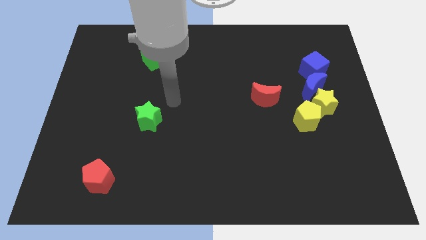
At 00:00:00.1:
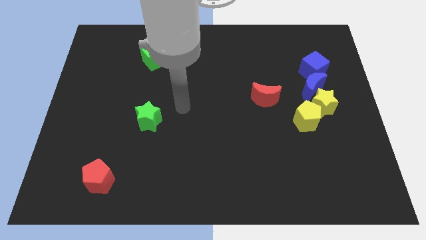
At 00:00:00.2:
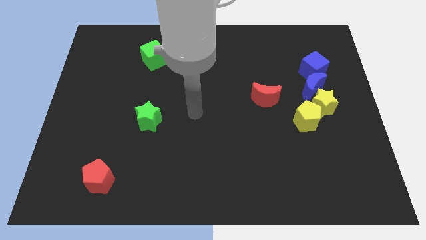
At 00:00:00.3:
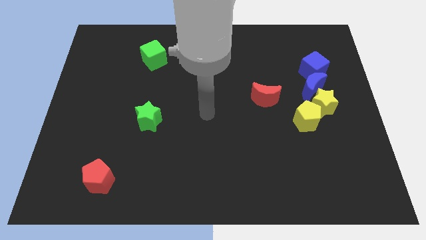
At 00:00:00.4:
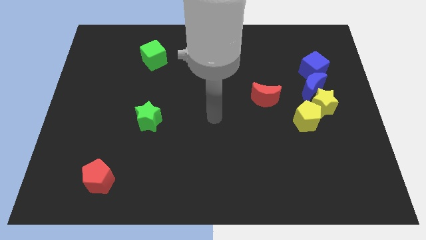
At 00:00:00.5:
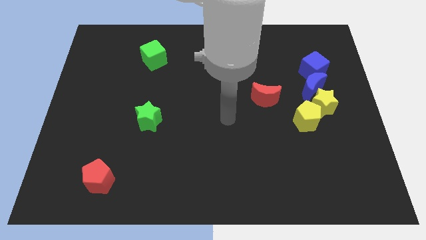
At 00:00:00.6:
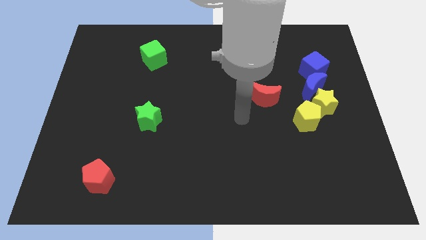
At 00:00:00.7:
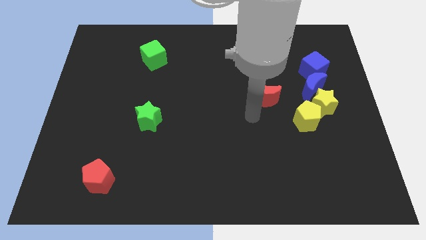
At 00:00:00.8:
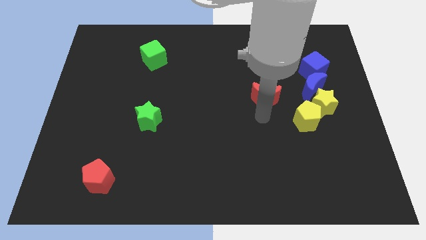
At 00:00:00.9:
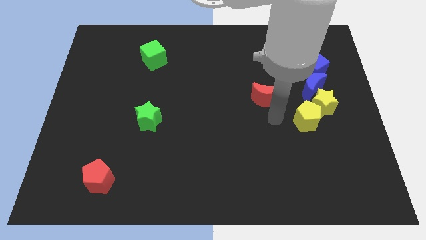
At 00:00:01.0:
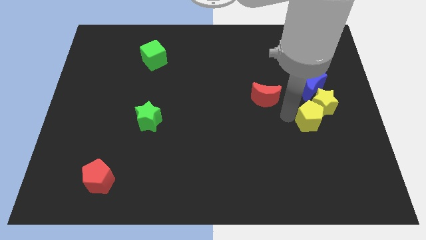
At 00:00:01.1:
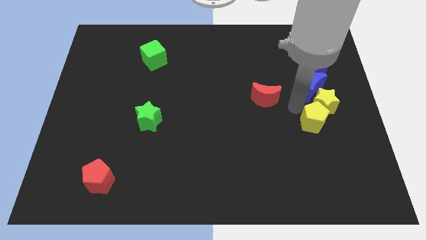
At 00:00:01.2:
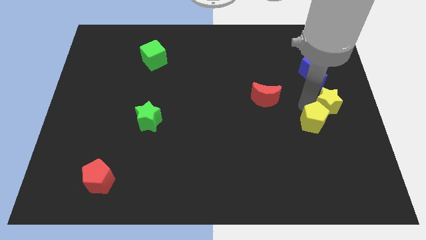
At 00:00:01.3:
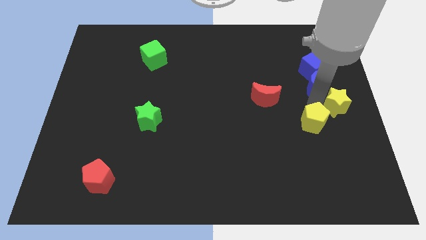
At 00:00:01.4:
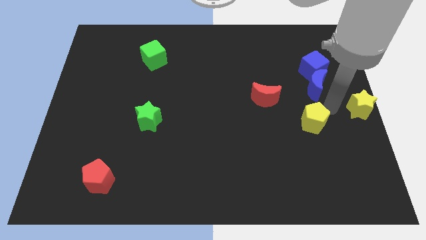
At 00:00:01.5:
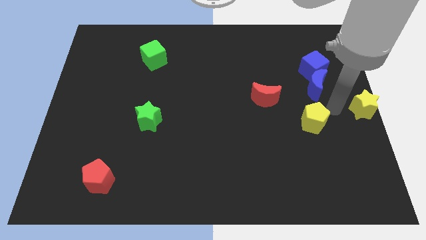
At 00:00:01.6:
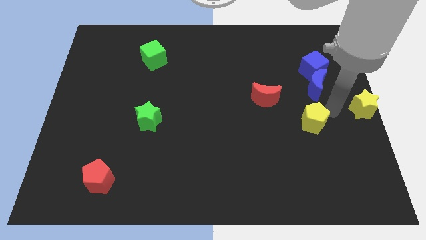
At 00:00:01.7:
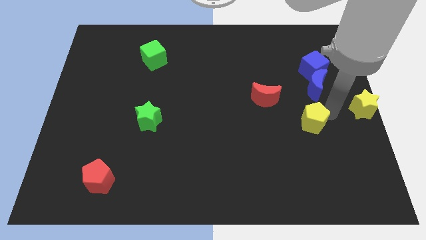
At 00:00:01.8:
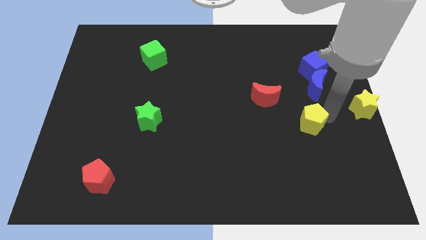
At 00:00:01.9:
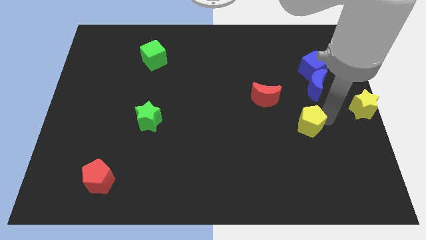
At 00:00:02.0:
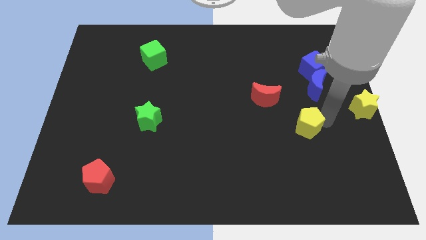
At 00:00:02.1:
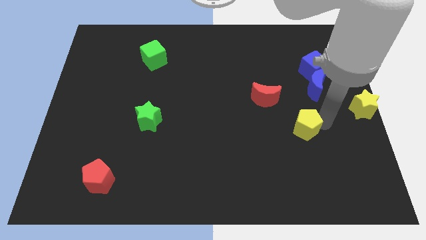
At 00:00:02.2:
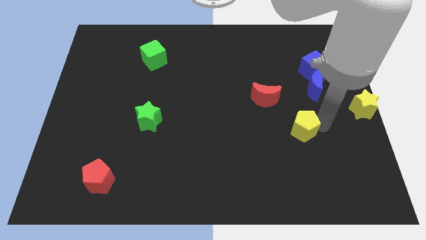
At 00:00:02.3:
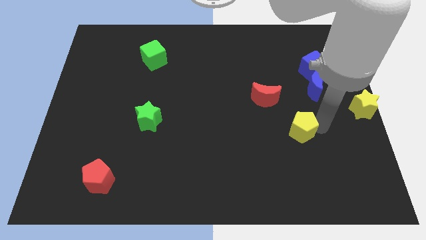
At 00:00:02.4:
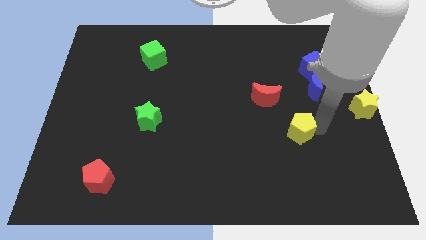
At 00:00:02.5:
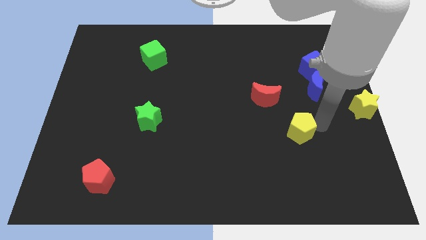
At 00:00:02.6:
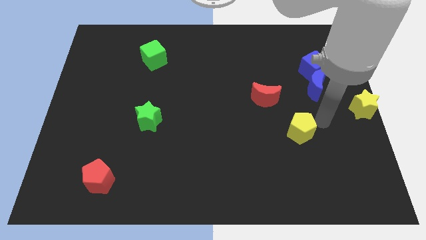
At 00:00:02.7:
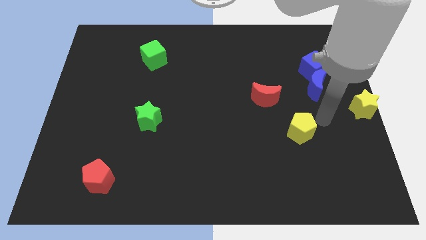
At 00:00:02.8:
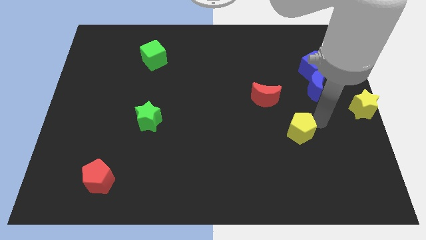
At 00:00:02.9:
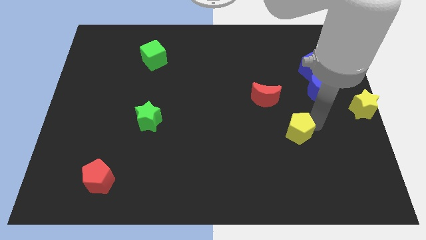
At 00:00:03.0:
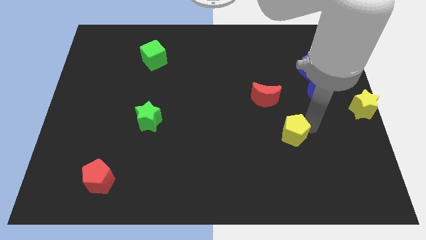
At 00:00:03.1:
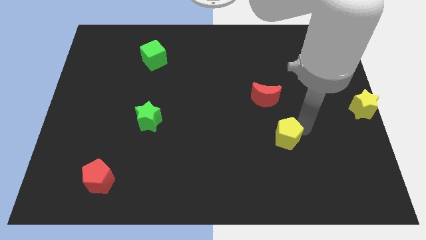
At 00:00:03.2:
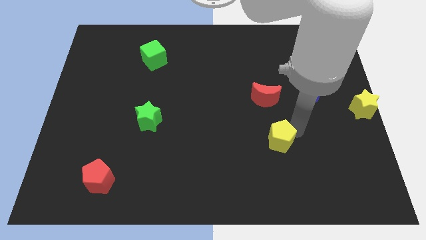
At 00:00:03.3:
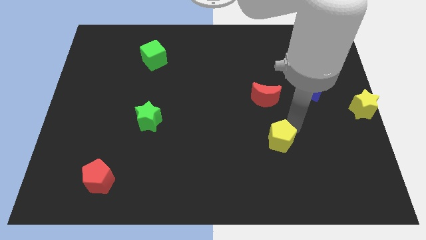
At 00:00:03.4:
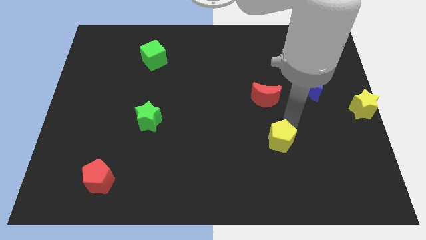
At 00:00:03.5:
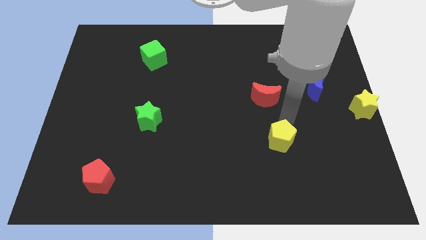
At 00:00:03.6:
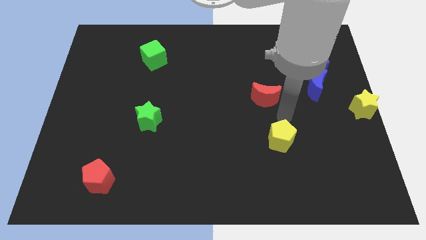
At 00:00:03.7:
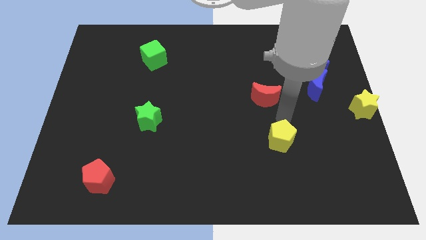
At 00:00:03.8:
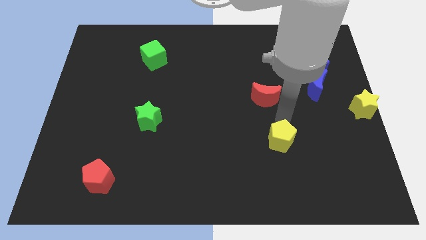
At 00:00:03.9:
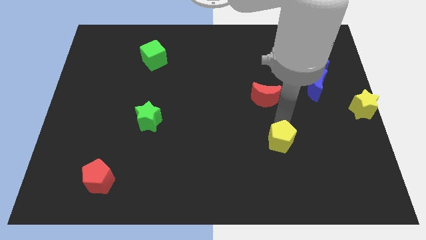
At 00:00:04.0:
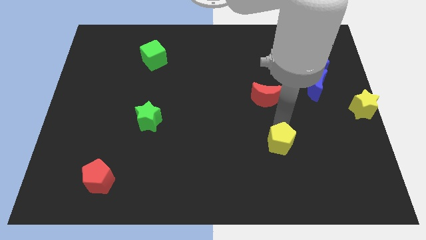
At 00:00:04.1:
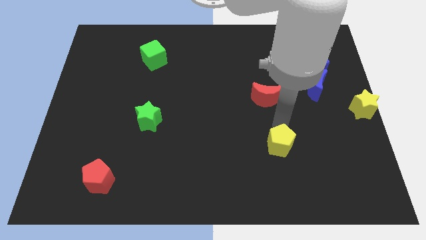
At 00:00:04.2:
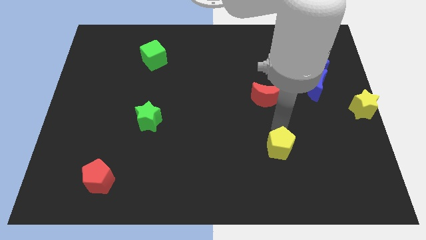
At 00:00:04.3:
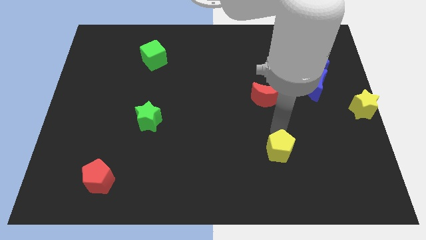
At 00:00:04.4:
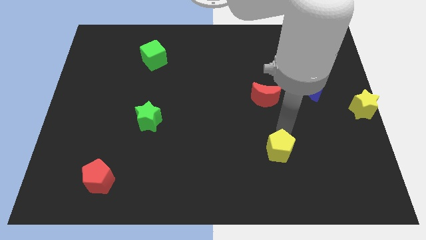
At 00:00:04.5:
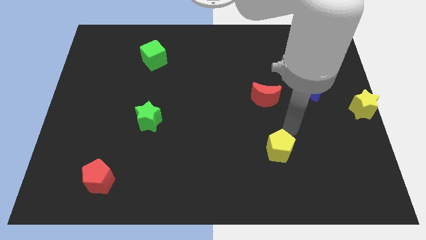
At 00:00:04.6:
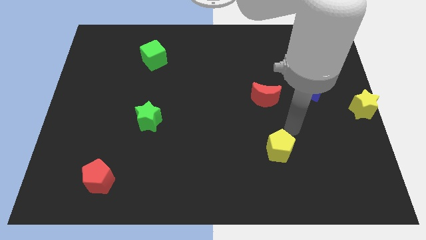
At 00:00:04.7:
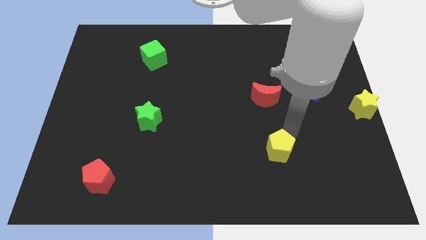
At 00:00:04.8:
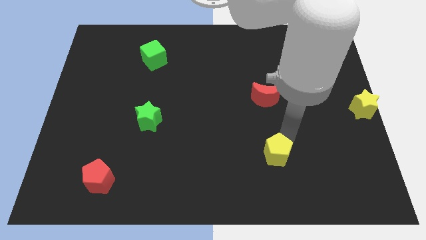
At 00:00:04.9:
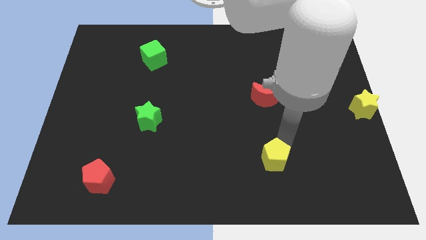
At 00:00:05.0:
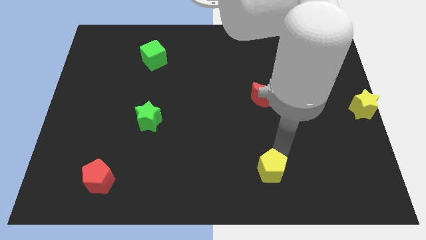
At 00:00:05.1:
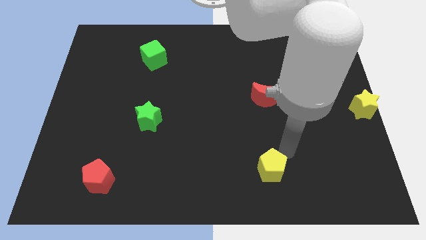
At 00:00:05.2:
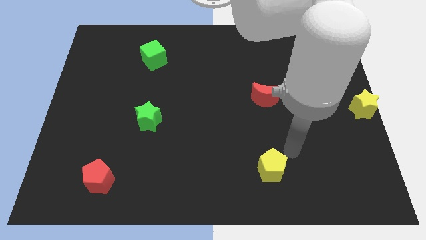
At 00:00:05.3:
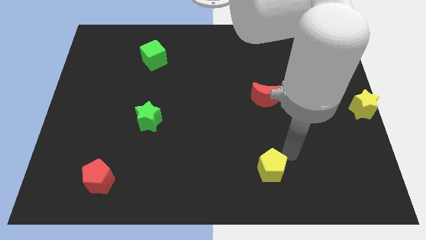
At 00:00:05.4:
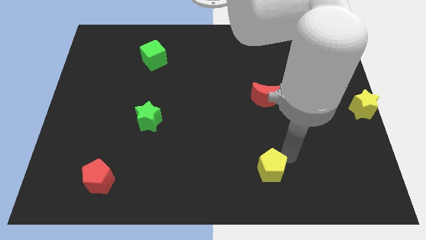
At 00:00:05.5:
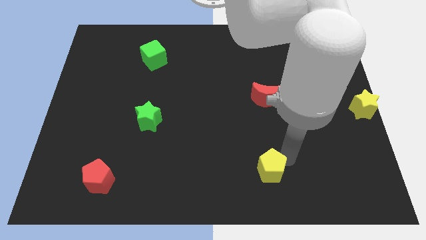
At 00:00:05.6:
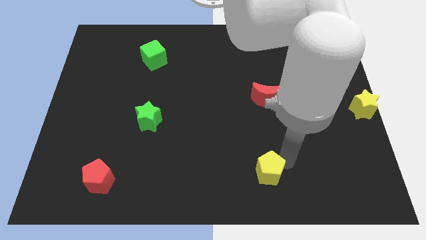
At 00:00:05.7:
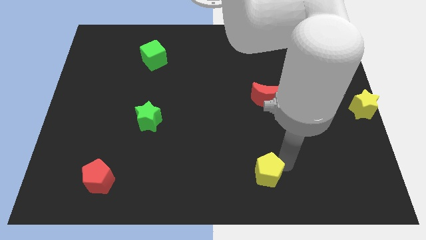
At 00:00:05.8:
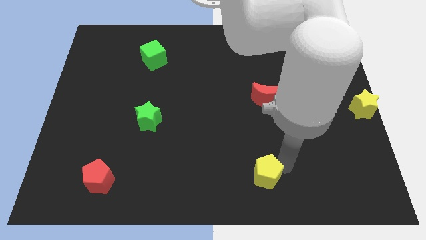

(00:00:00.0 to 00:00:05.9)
move the yellow pentagon to the bottom side
